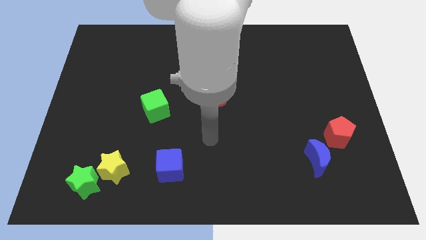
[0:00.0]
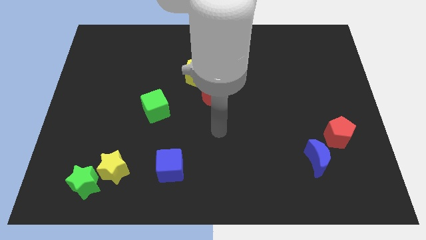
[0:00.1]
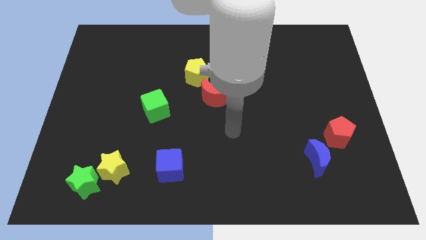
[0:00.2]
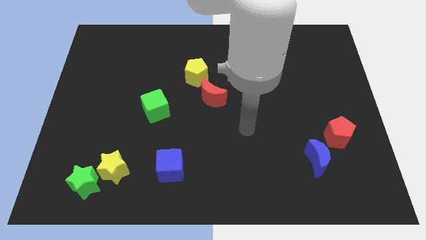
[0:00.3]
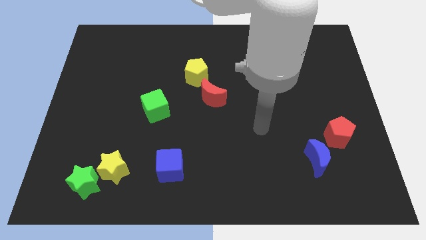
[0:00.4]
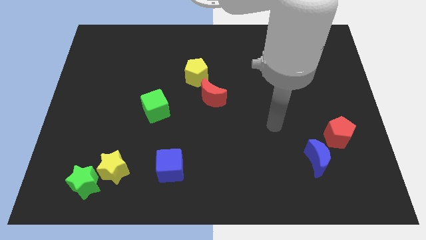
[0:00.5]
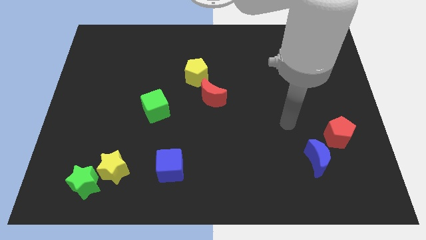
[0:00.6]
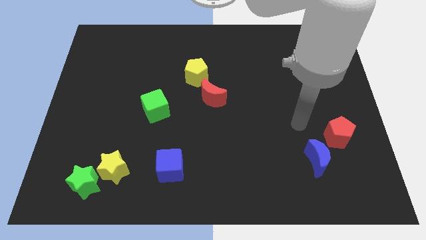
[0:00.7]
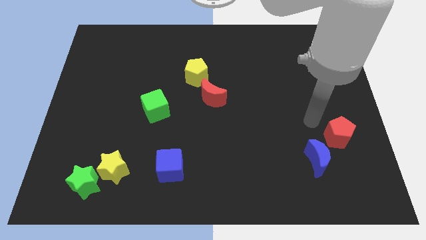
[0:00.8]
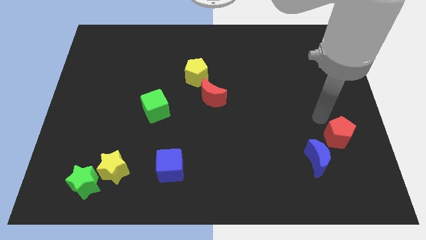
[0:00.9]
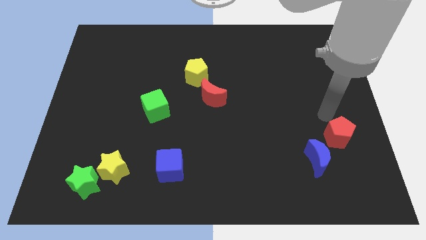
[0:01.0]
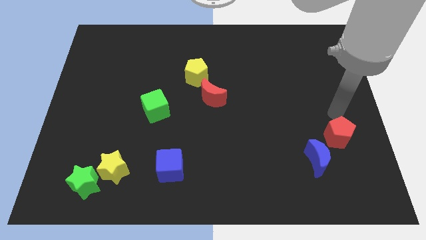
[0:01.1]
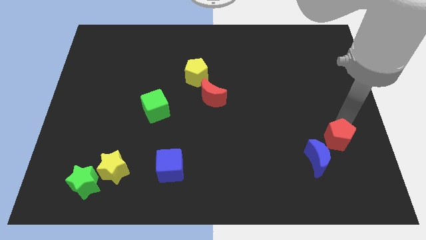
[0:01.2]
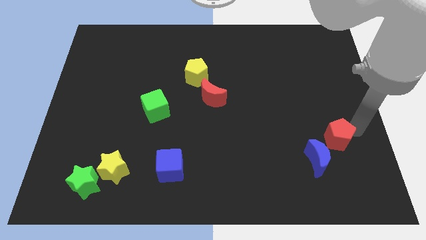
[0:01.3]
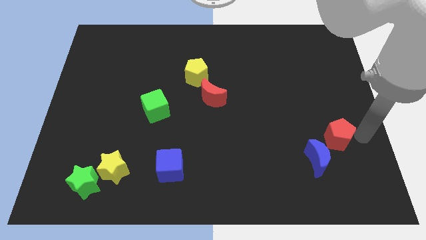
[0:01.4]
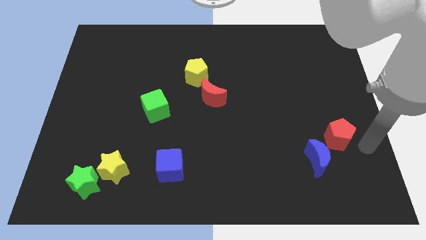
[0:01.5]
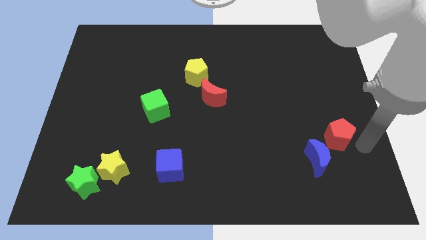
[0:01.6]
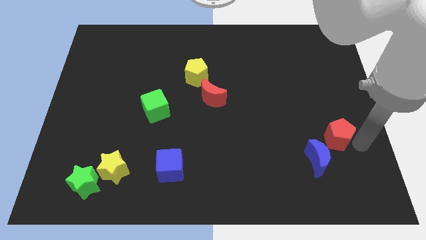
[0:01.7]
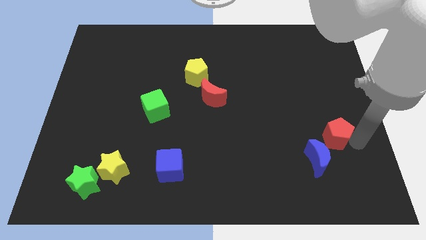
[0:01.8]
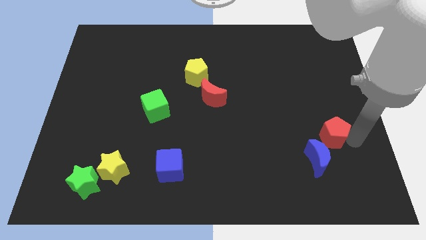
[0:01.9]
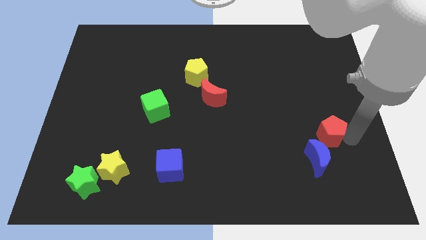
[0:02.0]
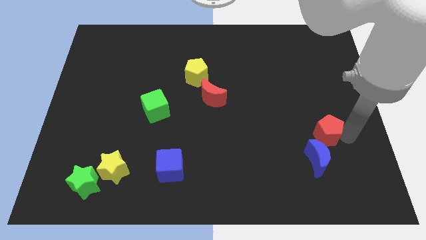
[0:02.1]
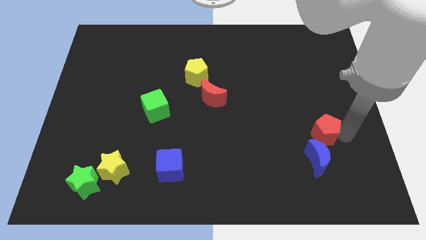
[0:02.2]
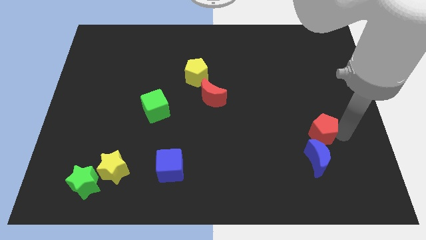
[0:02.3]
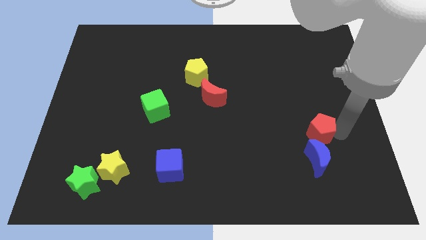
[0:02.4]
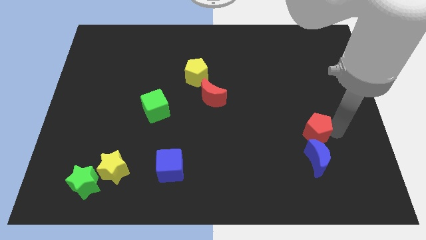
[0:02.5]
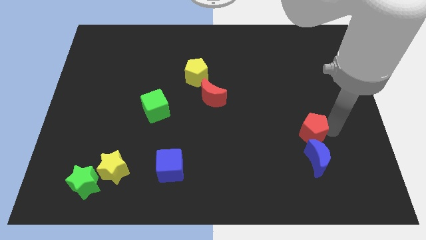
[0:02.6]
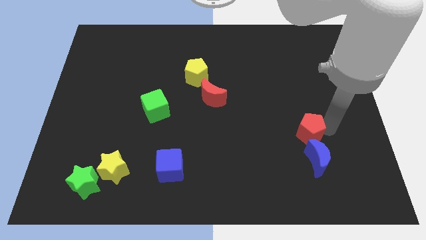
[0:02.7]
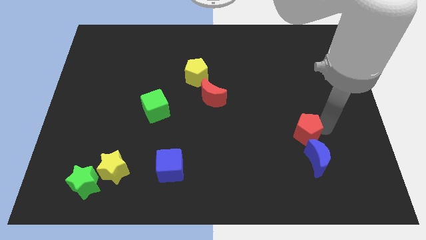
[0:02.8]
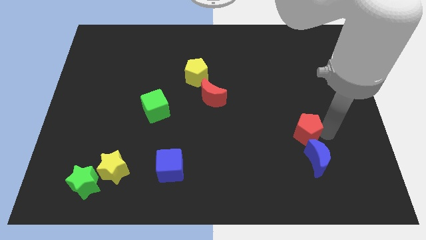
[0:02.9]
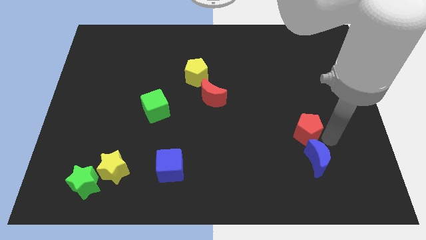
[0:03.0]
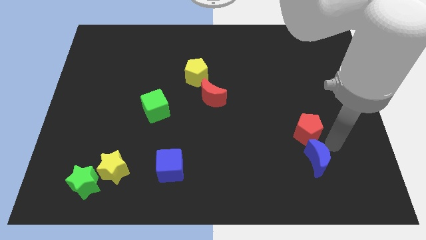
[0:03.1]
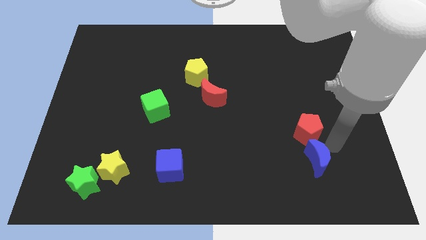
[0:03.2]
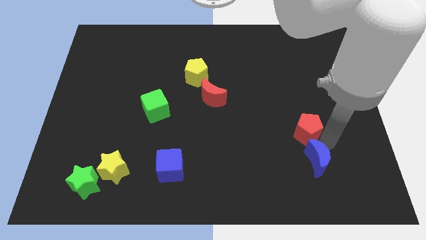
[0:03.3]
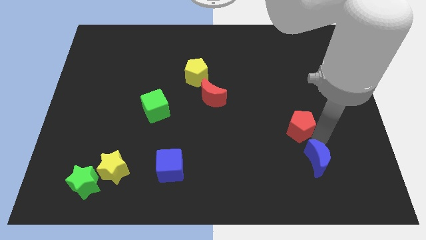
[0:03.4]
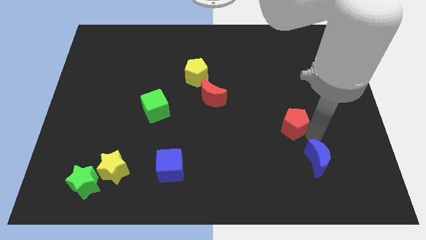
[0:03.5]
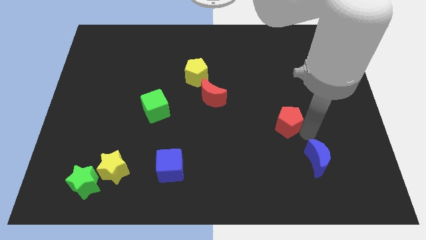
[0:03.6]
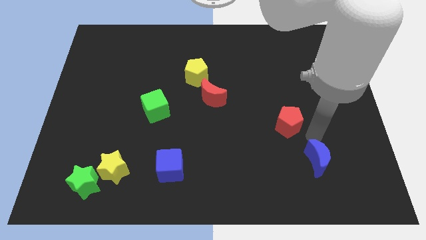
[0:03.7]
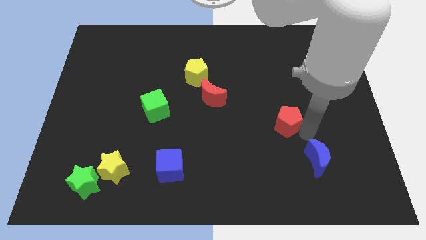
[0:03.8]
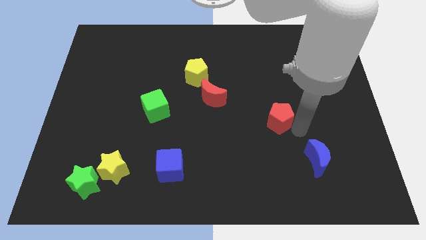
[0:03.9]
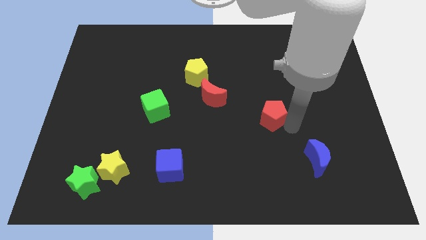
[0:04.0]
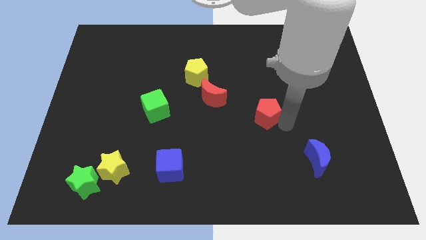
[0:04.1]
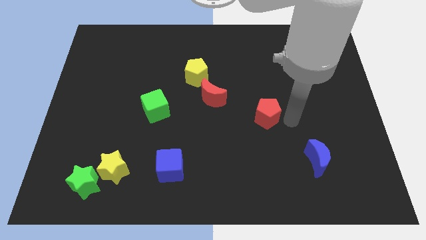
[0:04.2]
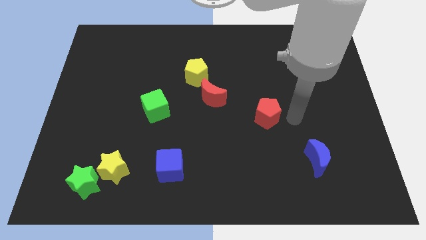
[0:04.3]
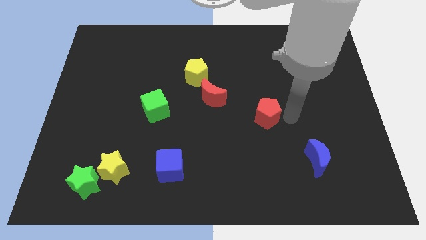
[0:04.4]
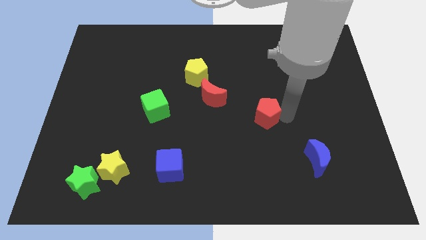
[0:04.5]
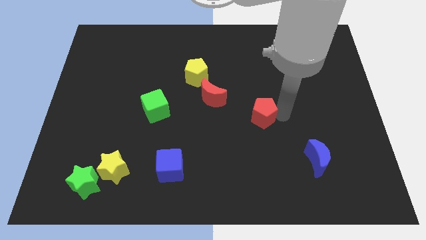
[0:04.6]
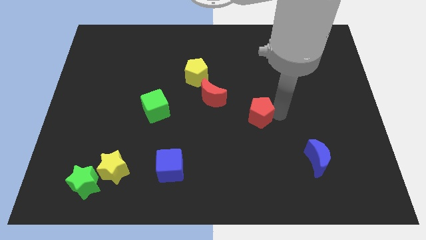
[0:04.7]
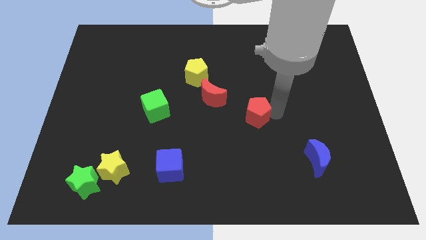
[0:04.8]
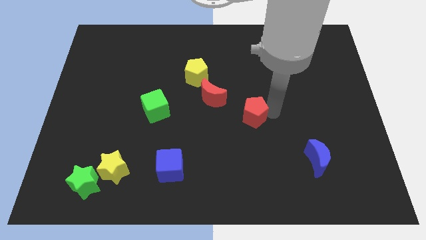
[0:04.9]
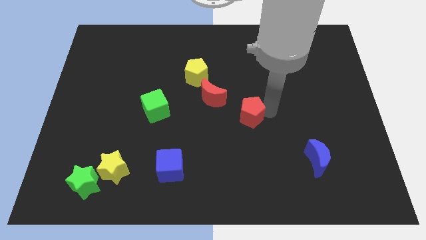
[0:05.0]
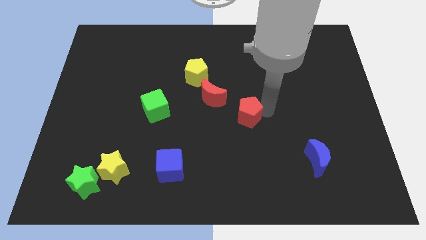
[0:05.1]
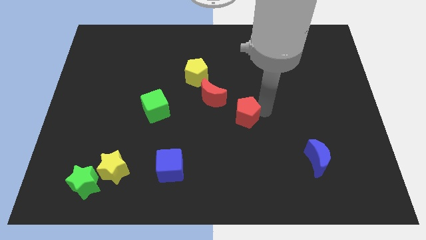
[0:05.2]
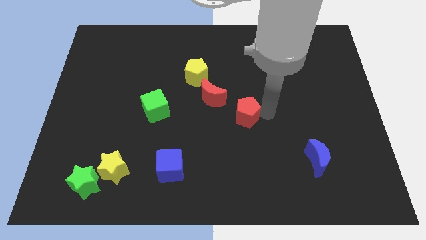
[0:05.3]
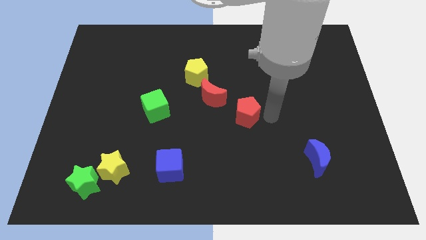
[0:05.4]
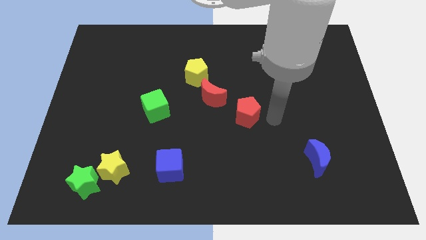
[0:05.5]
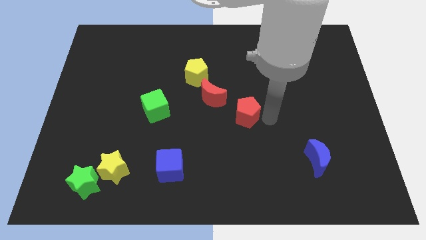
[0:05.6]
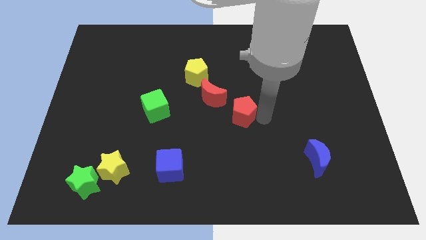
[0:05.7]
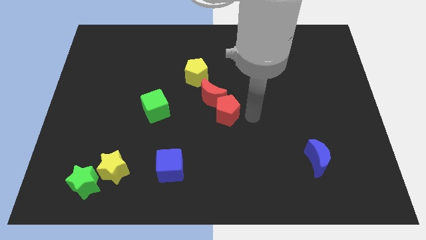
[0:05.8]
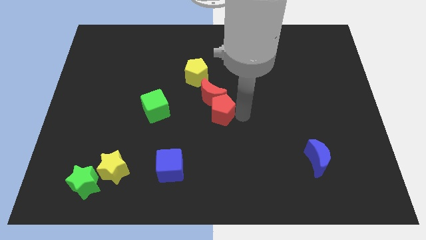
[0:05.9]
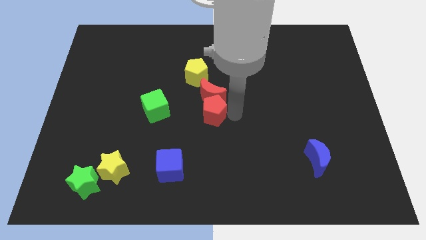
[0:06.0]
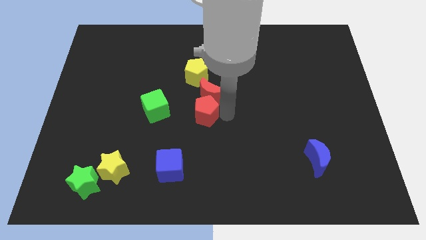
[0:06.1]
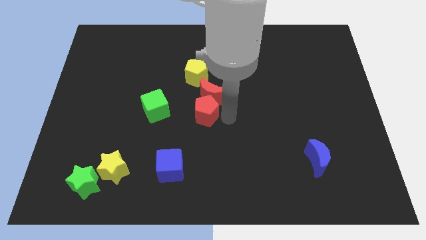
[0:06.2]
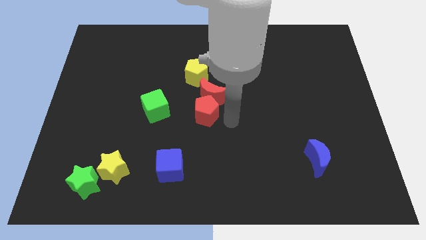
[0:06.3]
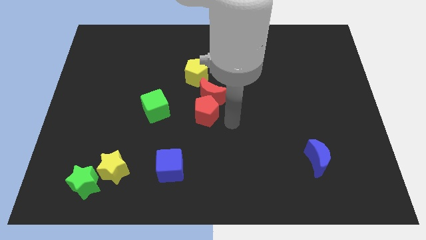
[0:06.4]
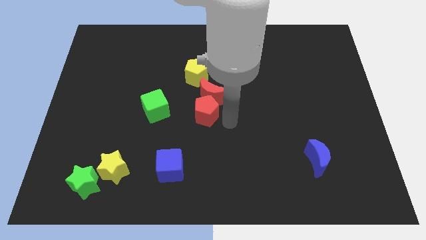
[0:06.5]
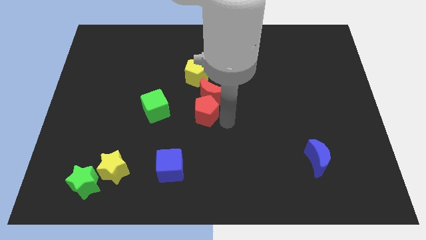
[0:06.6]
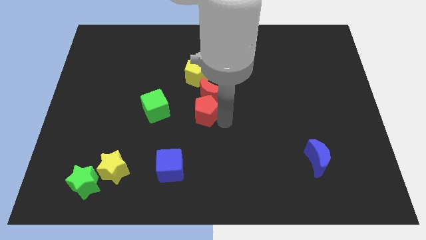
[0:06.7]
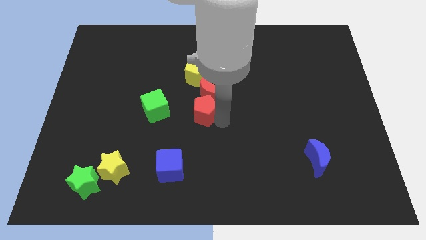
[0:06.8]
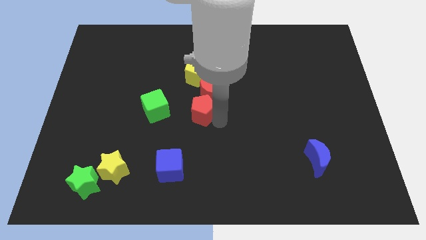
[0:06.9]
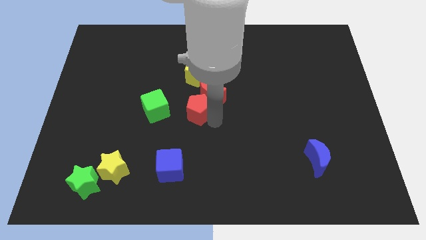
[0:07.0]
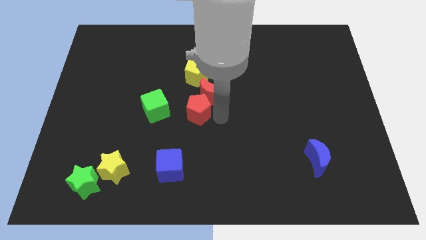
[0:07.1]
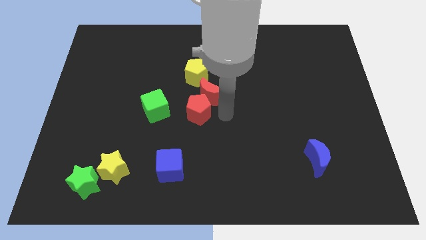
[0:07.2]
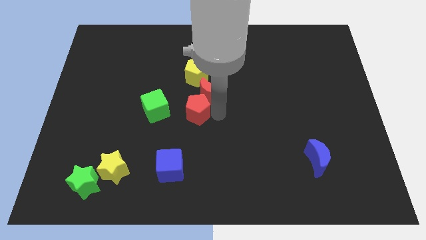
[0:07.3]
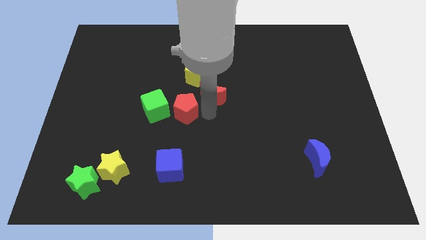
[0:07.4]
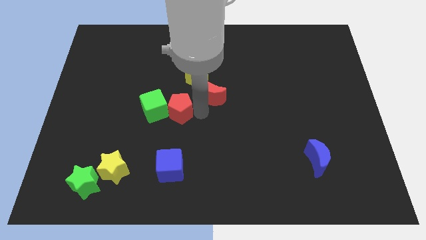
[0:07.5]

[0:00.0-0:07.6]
push the red pentagon next to the green cube
